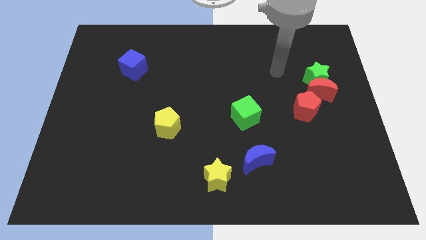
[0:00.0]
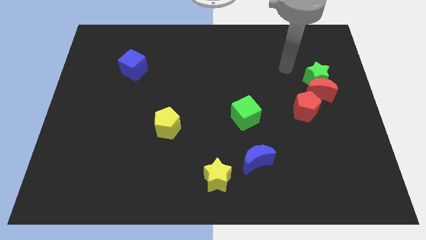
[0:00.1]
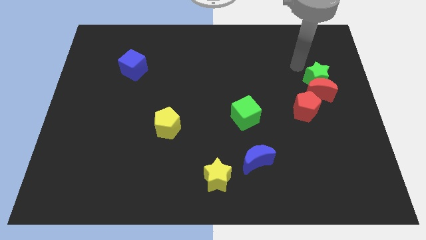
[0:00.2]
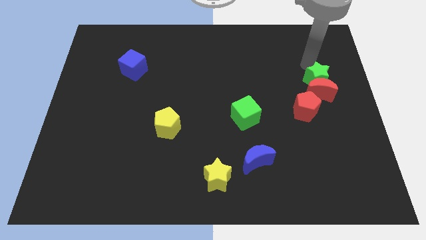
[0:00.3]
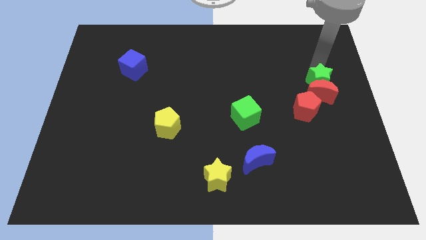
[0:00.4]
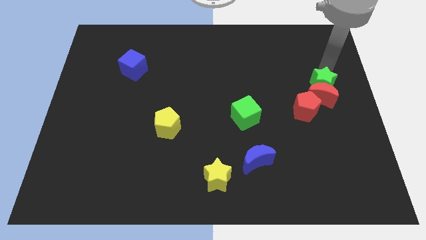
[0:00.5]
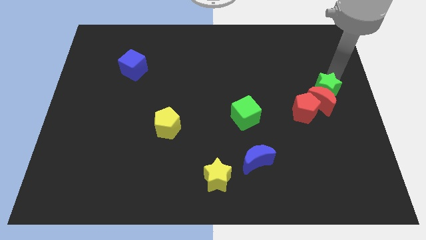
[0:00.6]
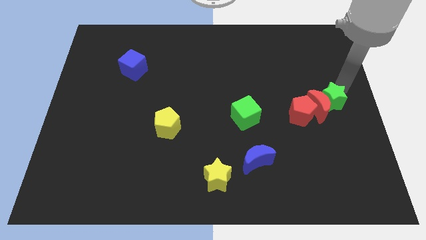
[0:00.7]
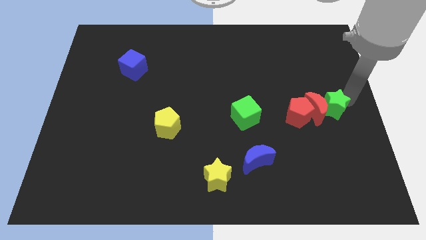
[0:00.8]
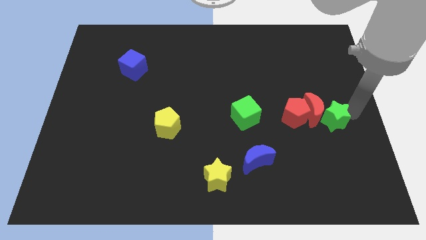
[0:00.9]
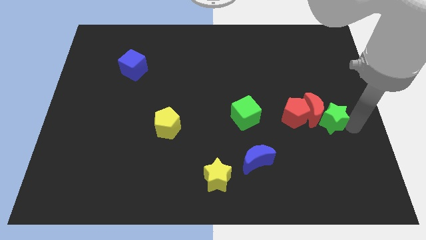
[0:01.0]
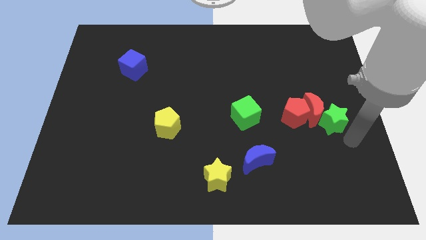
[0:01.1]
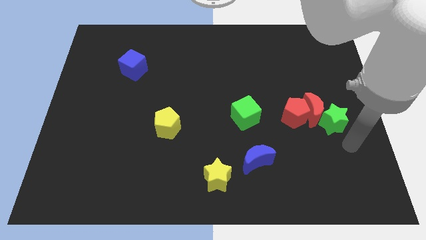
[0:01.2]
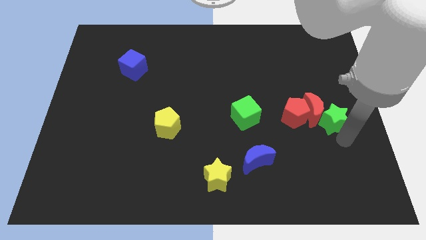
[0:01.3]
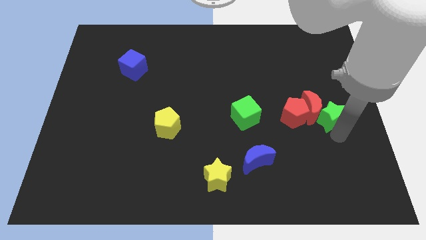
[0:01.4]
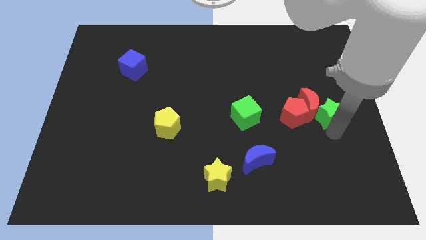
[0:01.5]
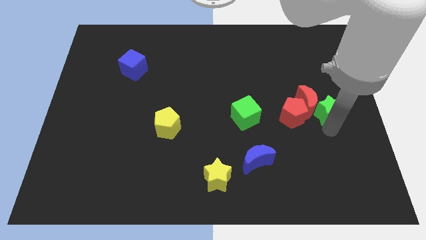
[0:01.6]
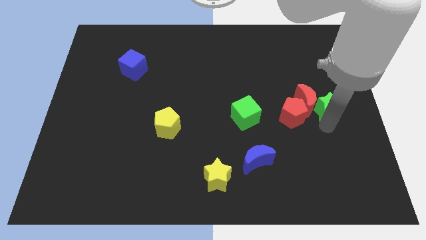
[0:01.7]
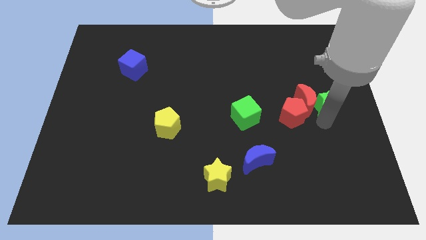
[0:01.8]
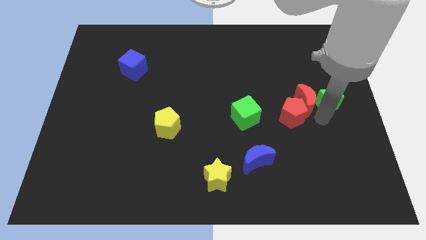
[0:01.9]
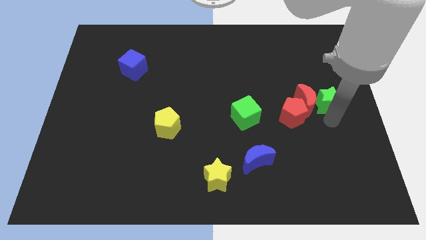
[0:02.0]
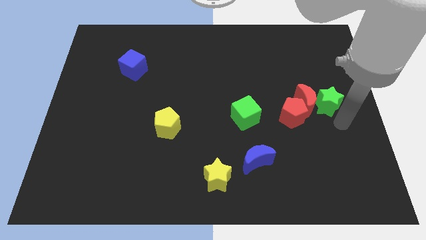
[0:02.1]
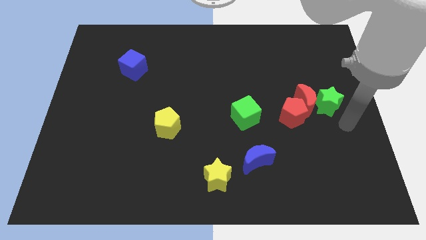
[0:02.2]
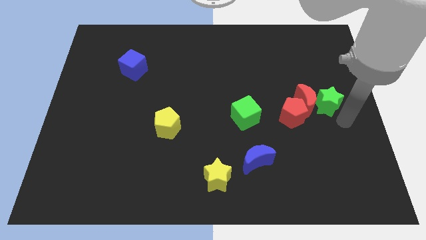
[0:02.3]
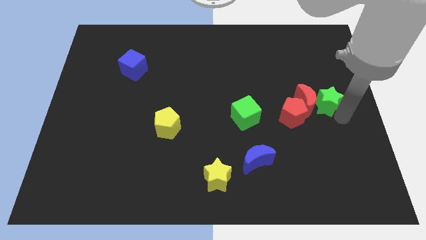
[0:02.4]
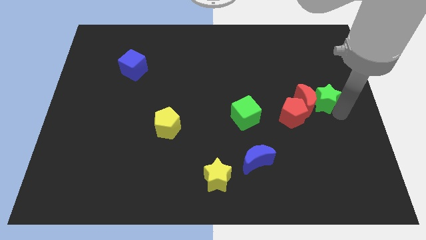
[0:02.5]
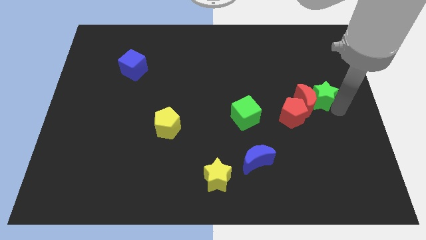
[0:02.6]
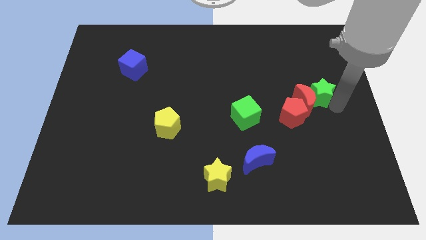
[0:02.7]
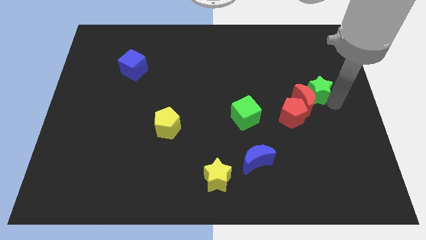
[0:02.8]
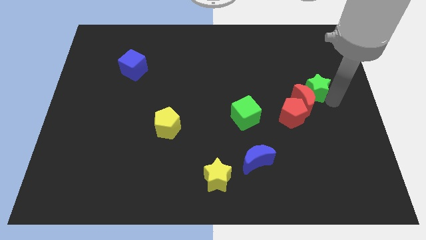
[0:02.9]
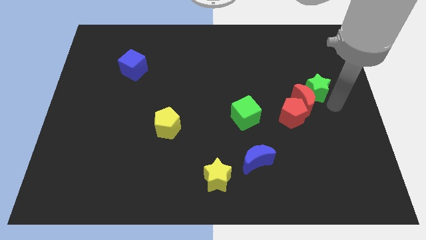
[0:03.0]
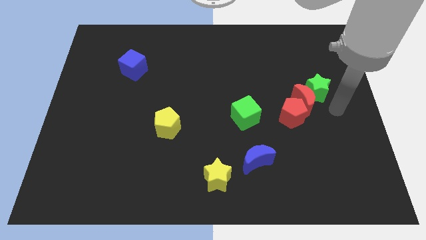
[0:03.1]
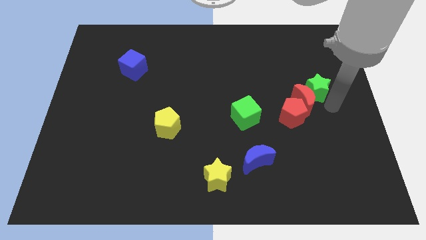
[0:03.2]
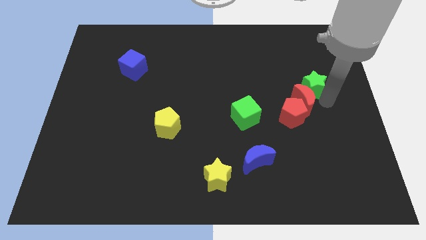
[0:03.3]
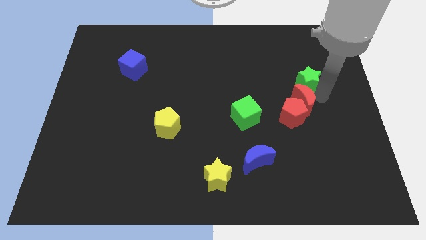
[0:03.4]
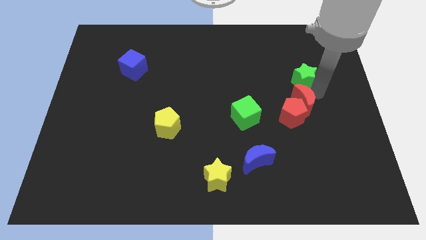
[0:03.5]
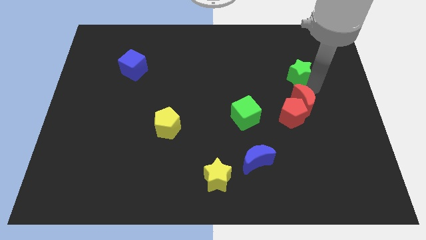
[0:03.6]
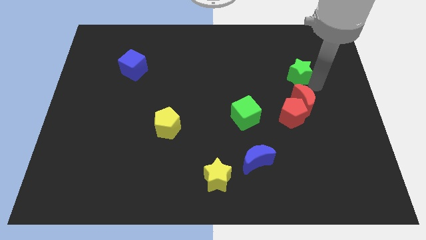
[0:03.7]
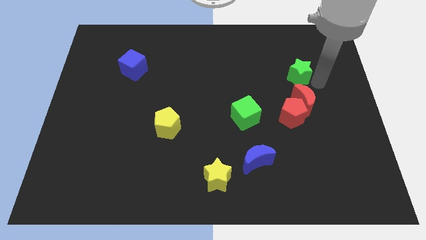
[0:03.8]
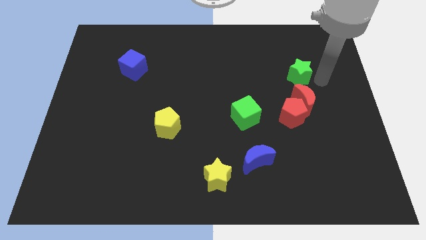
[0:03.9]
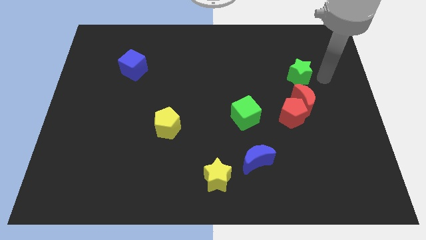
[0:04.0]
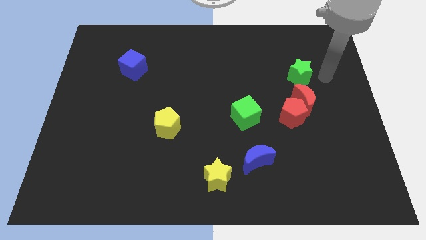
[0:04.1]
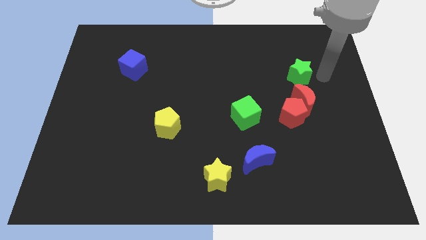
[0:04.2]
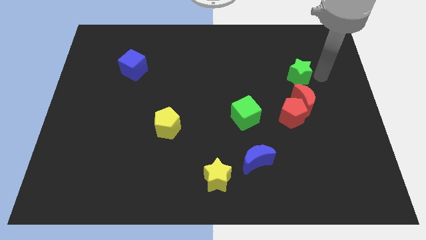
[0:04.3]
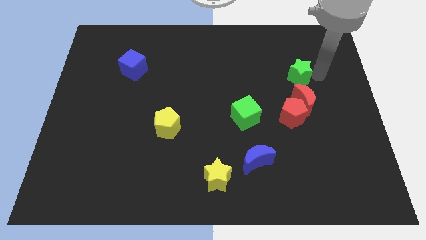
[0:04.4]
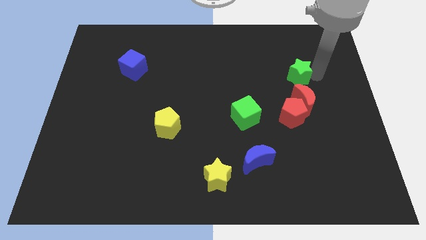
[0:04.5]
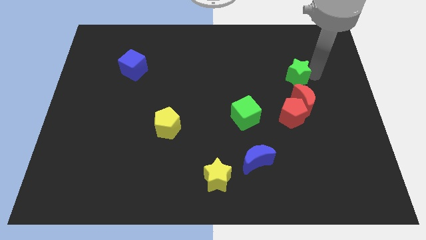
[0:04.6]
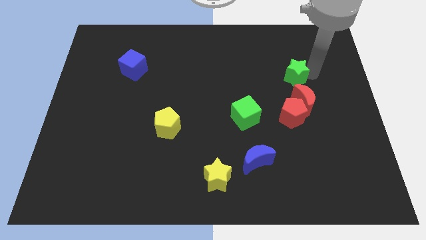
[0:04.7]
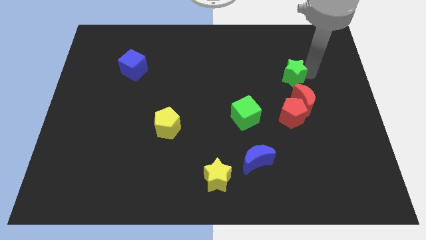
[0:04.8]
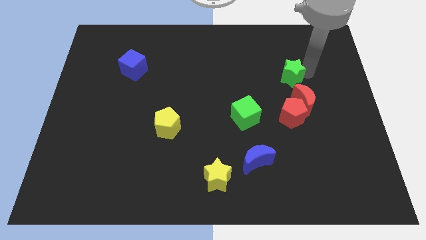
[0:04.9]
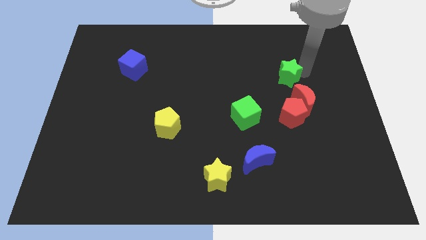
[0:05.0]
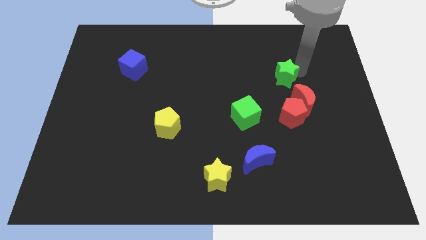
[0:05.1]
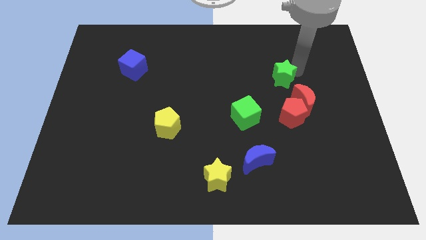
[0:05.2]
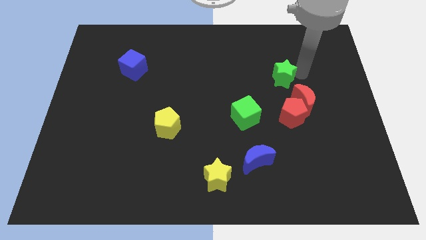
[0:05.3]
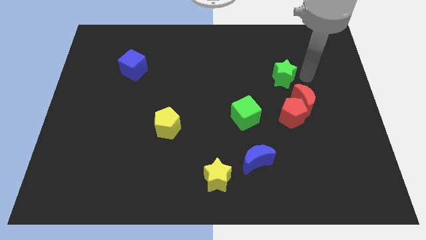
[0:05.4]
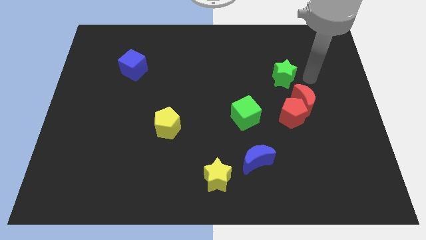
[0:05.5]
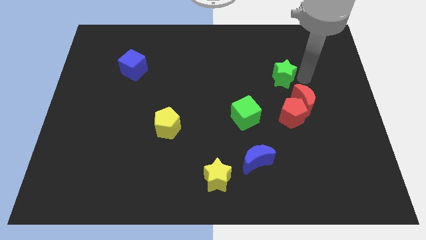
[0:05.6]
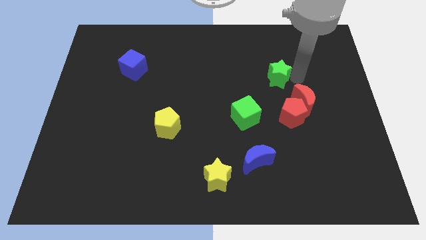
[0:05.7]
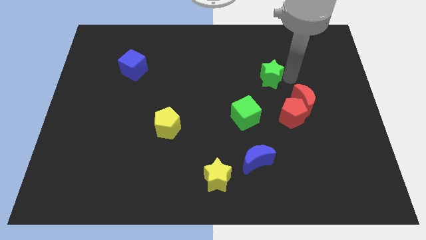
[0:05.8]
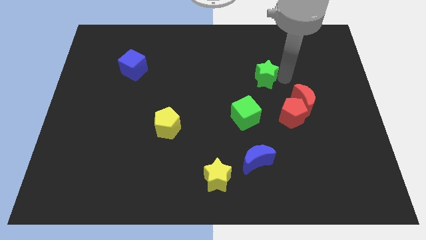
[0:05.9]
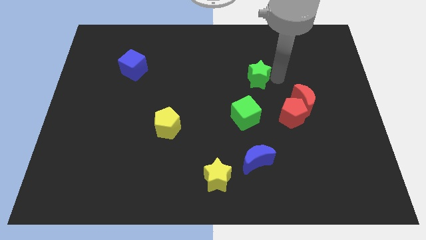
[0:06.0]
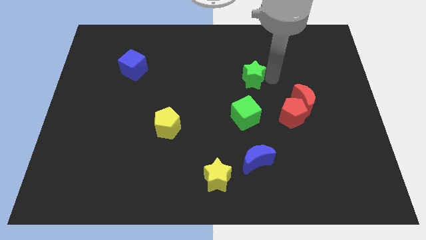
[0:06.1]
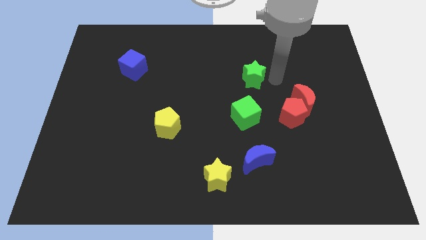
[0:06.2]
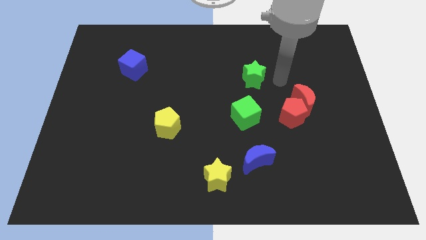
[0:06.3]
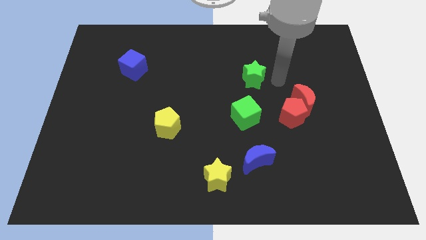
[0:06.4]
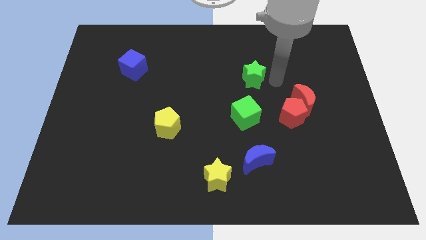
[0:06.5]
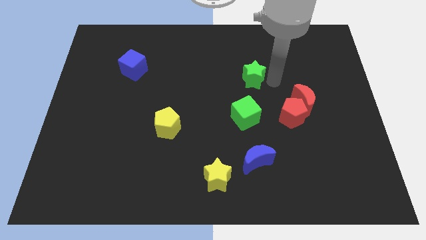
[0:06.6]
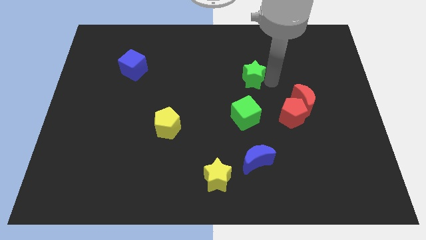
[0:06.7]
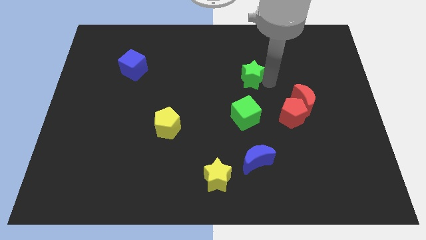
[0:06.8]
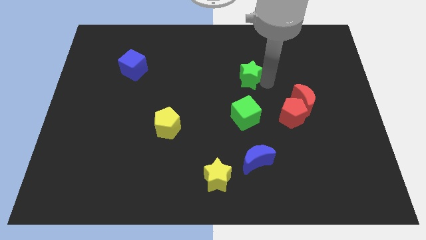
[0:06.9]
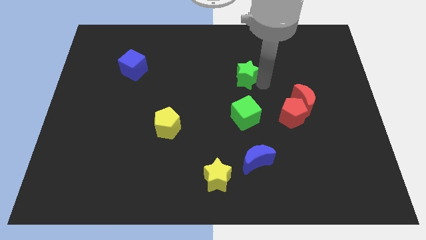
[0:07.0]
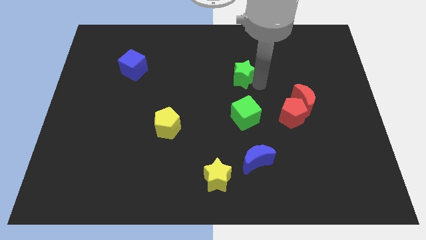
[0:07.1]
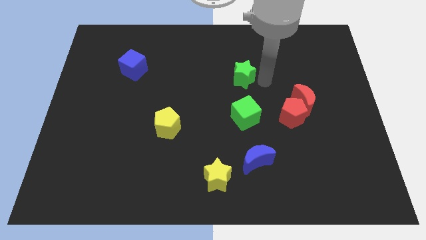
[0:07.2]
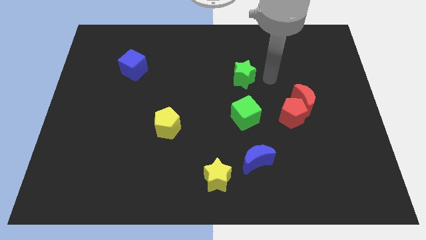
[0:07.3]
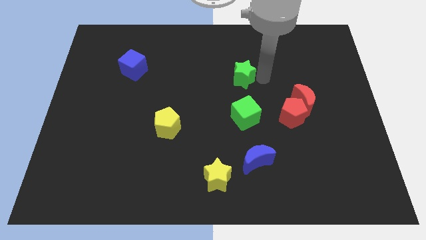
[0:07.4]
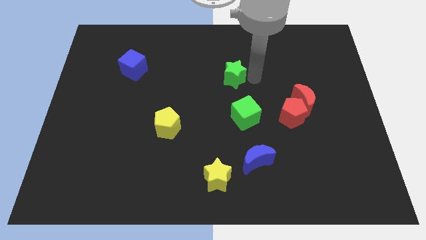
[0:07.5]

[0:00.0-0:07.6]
move the green star left

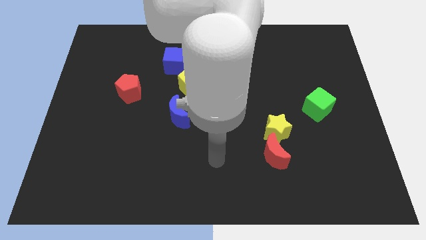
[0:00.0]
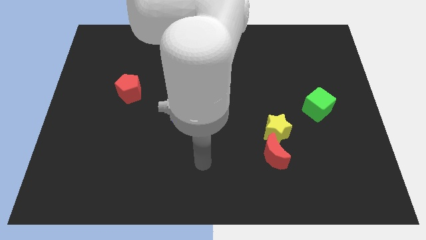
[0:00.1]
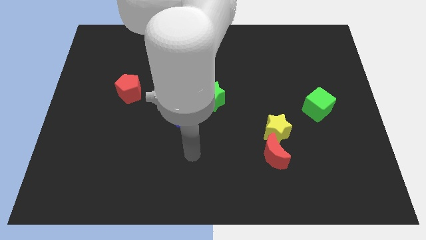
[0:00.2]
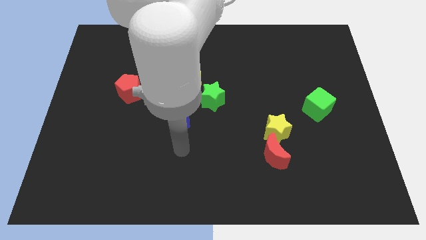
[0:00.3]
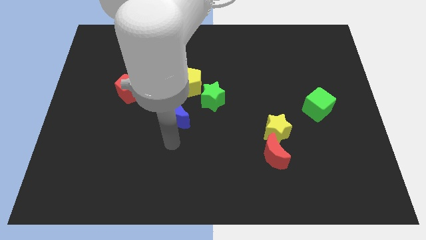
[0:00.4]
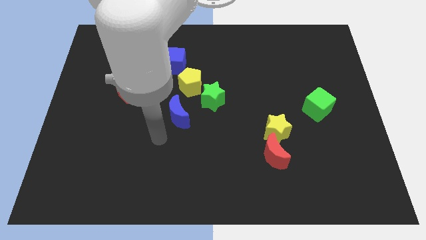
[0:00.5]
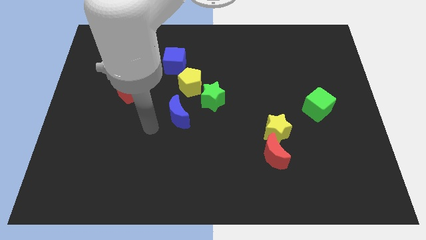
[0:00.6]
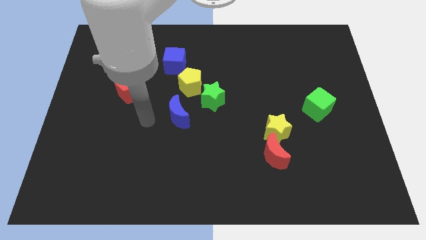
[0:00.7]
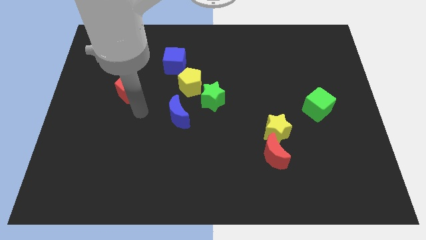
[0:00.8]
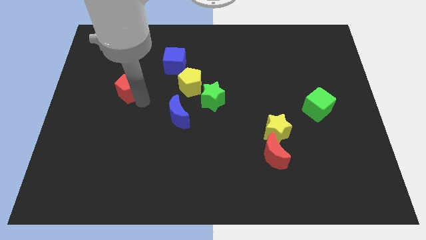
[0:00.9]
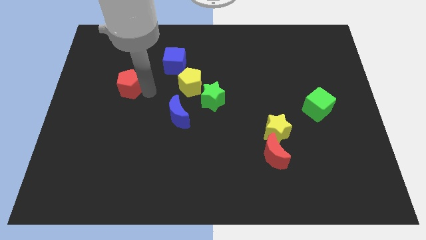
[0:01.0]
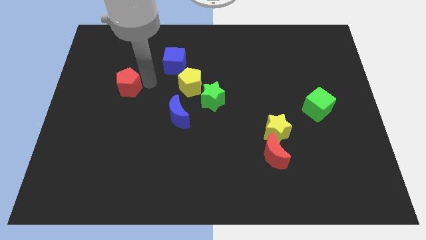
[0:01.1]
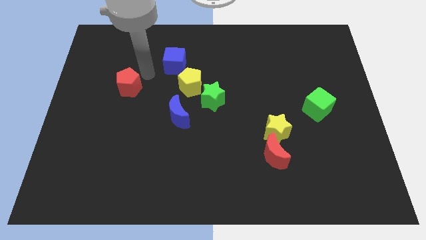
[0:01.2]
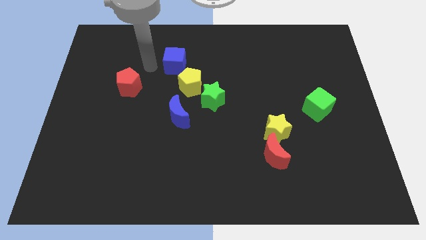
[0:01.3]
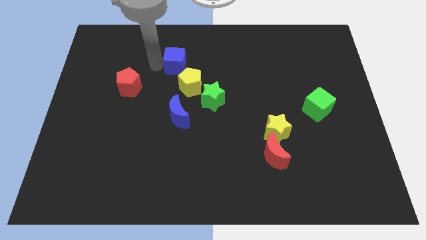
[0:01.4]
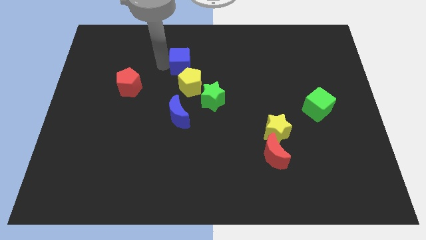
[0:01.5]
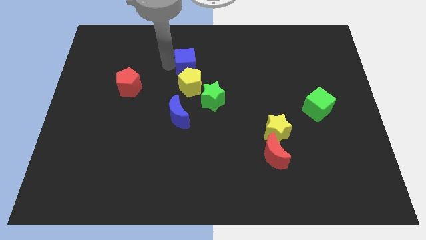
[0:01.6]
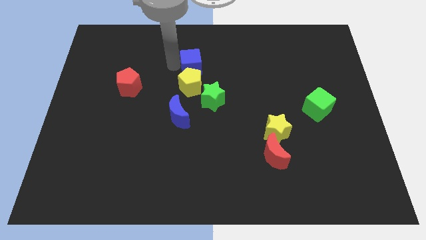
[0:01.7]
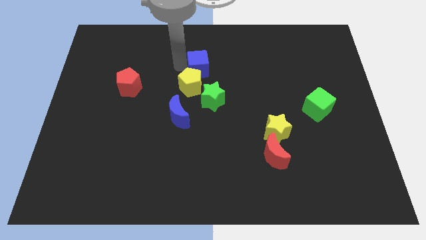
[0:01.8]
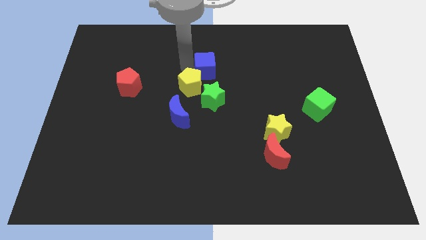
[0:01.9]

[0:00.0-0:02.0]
move the blue cube slightly to the right
